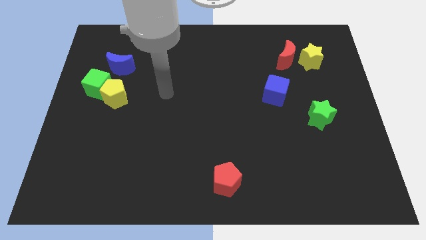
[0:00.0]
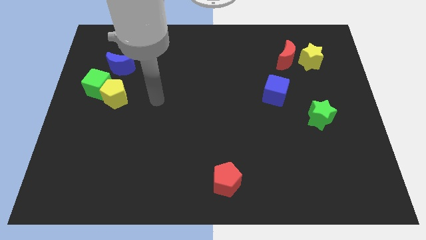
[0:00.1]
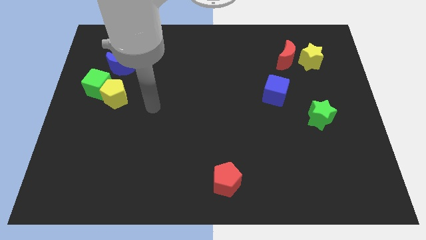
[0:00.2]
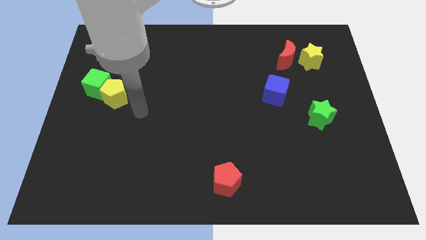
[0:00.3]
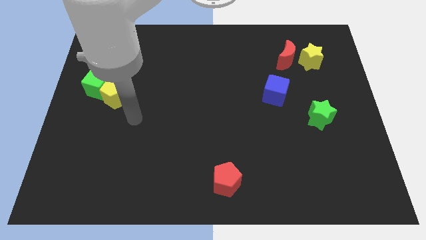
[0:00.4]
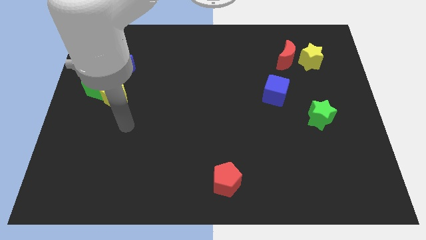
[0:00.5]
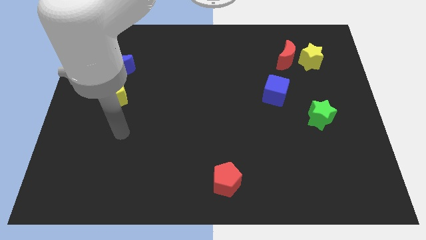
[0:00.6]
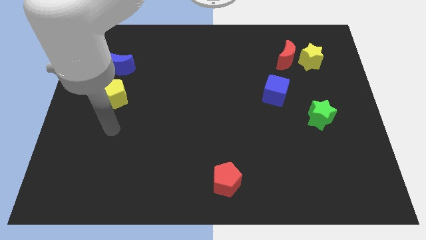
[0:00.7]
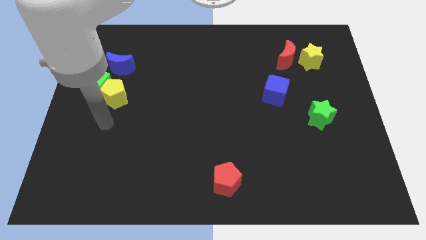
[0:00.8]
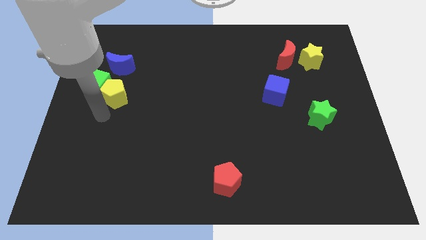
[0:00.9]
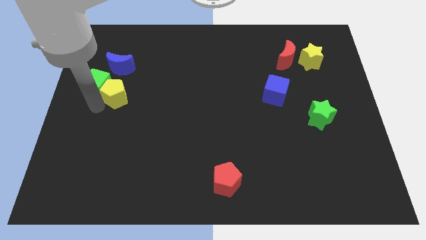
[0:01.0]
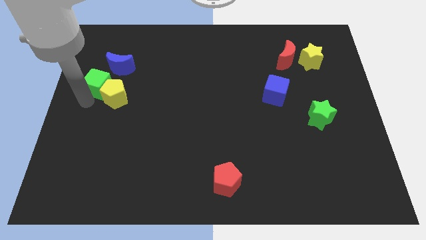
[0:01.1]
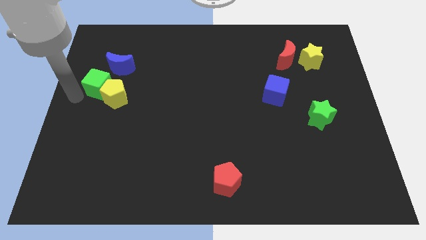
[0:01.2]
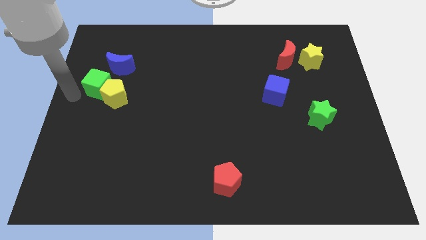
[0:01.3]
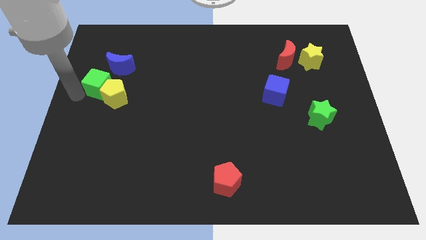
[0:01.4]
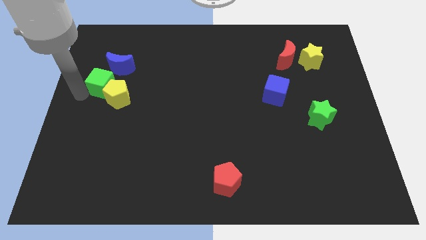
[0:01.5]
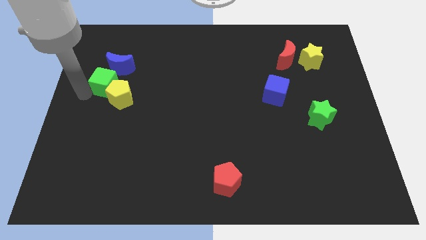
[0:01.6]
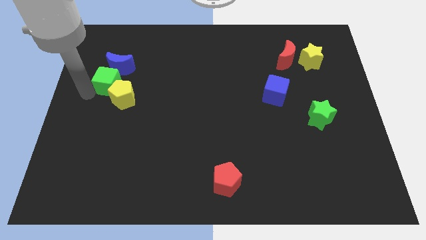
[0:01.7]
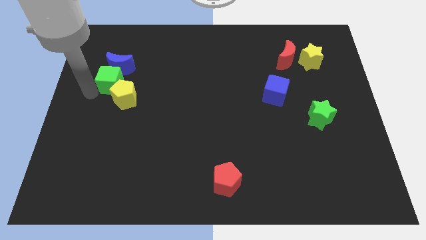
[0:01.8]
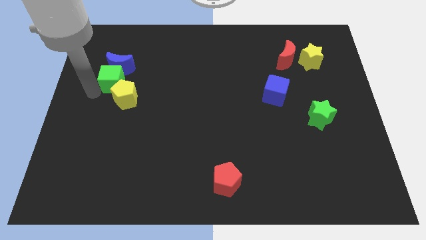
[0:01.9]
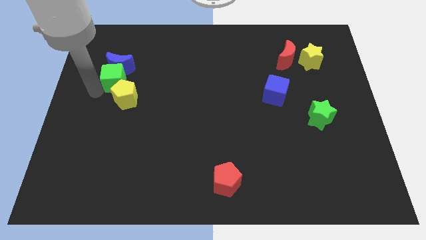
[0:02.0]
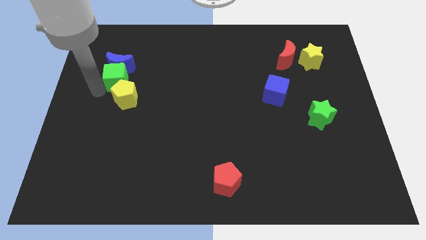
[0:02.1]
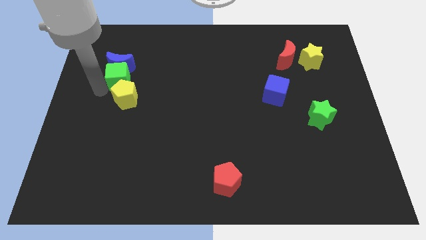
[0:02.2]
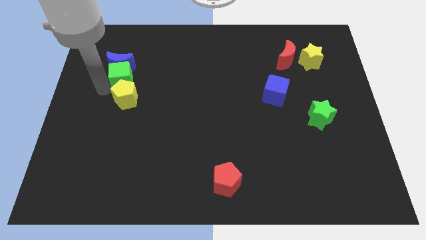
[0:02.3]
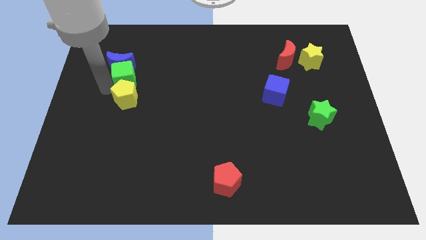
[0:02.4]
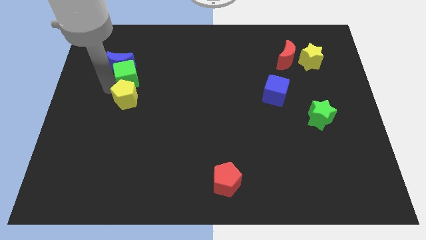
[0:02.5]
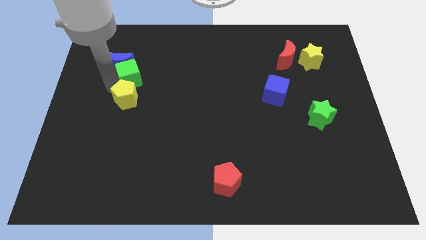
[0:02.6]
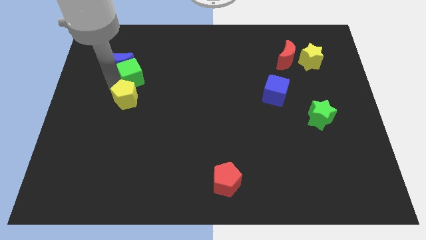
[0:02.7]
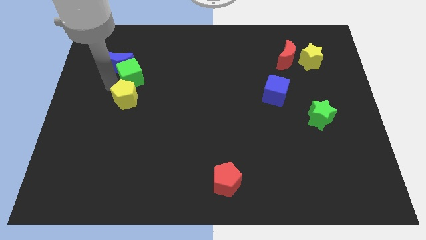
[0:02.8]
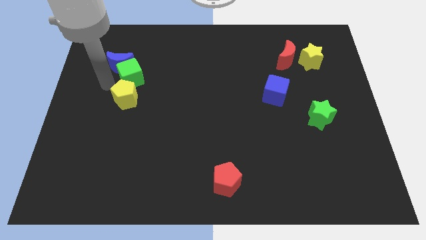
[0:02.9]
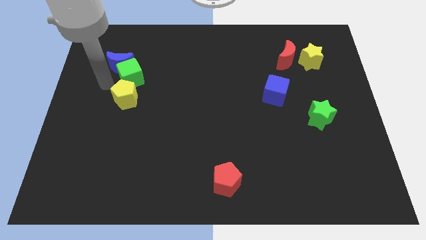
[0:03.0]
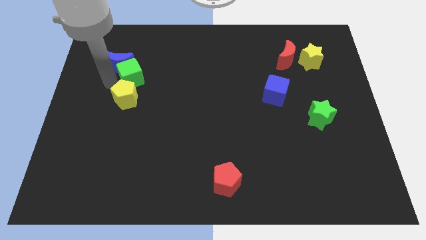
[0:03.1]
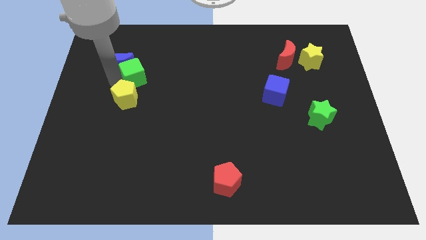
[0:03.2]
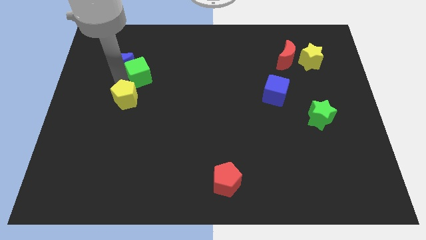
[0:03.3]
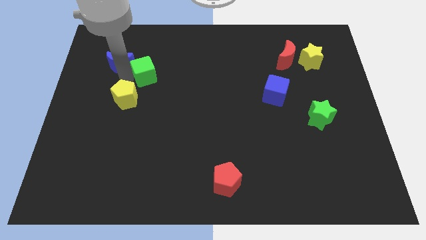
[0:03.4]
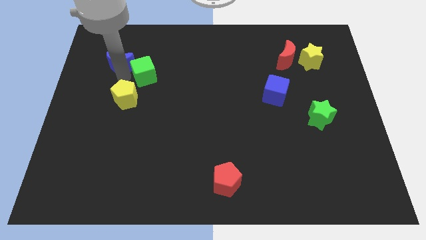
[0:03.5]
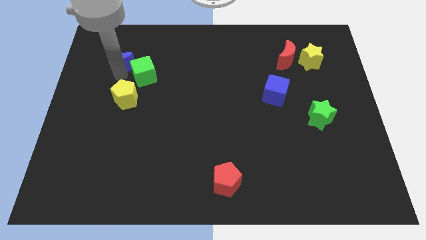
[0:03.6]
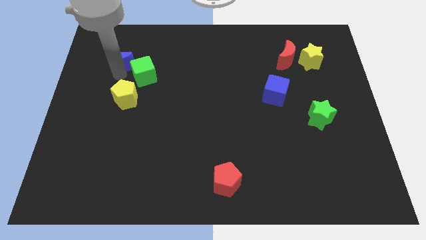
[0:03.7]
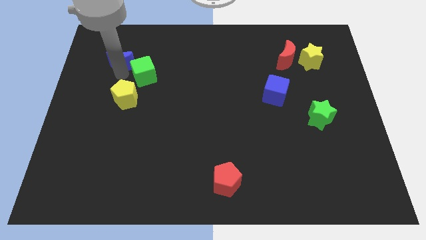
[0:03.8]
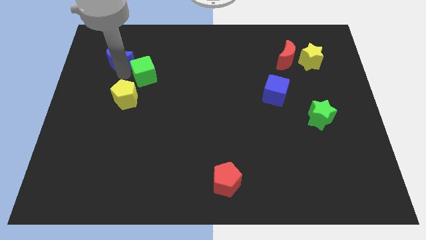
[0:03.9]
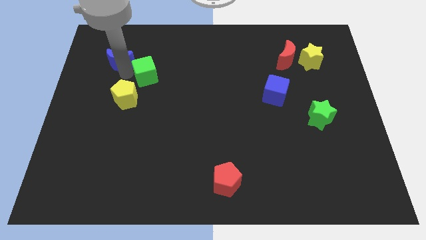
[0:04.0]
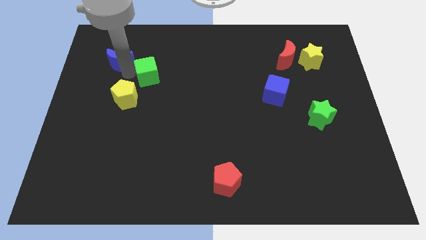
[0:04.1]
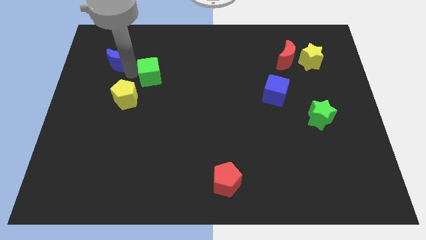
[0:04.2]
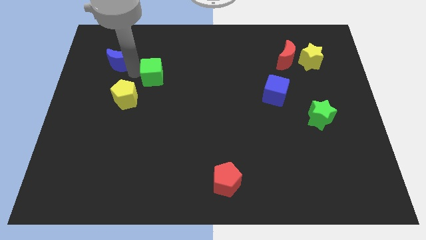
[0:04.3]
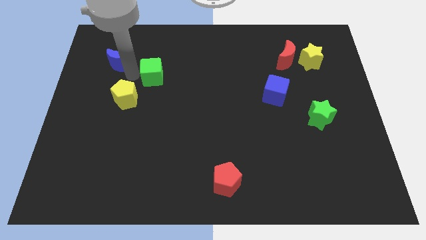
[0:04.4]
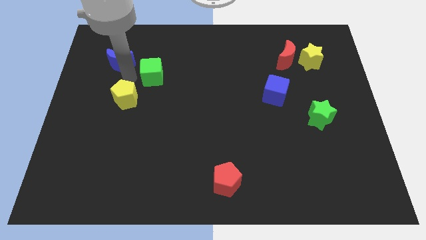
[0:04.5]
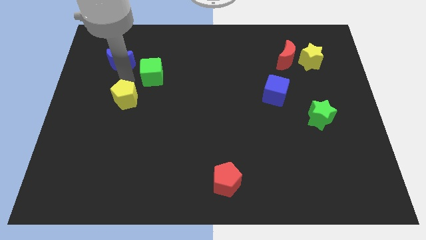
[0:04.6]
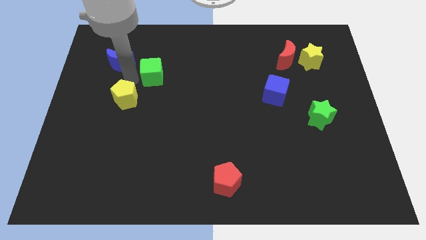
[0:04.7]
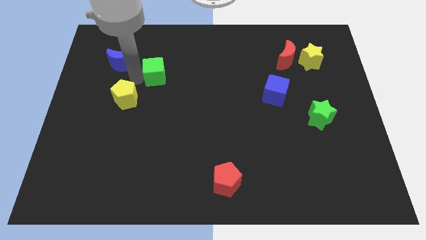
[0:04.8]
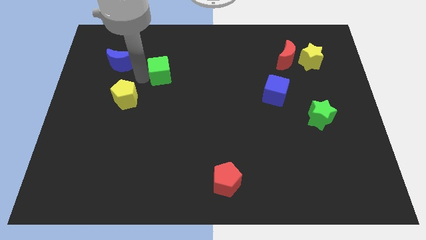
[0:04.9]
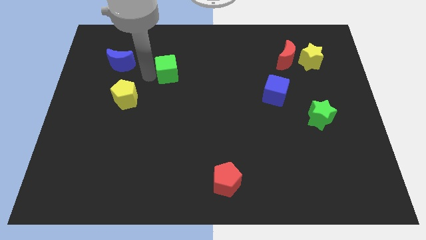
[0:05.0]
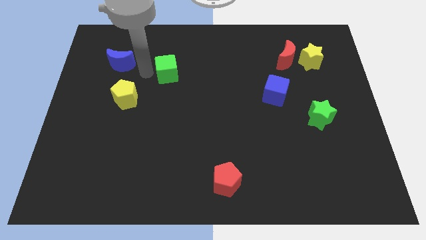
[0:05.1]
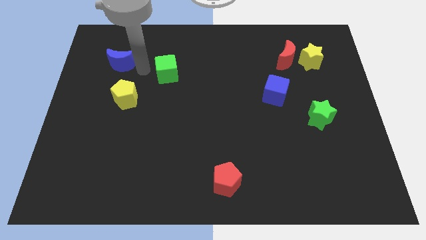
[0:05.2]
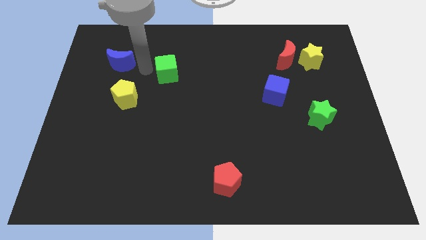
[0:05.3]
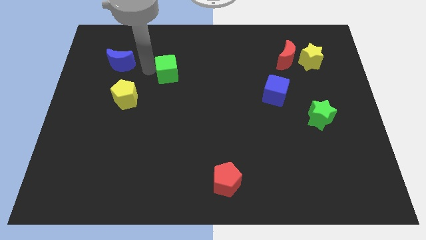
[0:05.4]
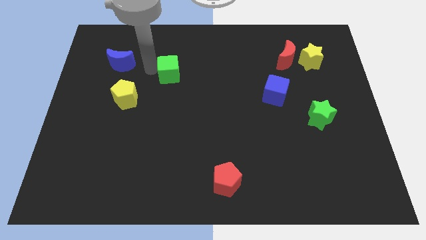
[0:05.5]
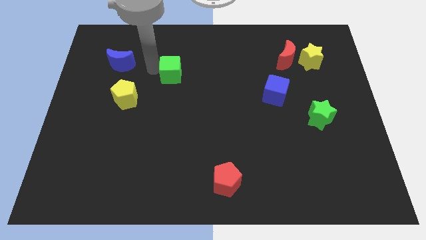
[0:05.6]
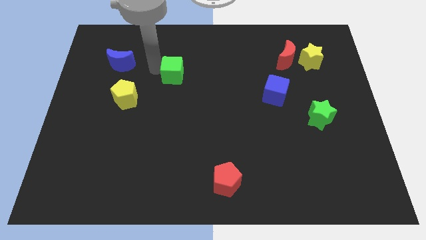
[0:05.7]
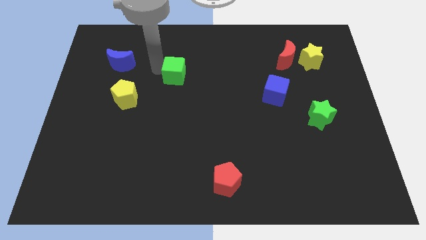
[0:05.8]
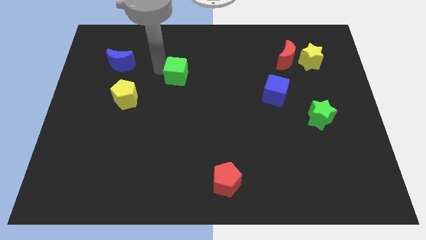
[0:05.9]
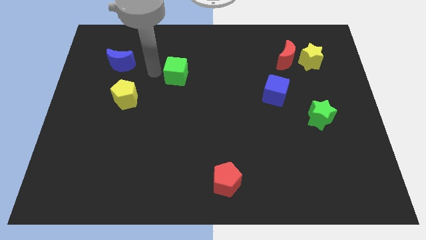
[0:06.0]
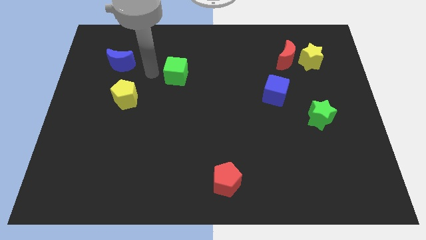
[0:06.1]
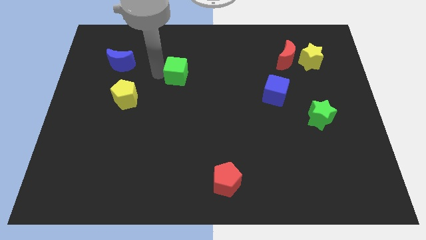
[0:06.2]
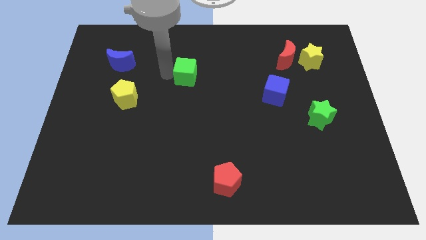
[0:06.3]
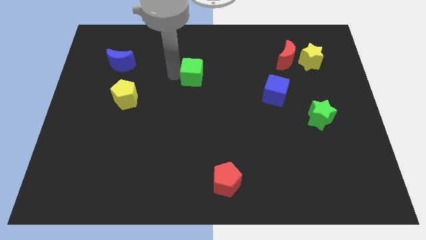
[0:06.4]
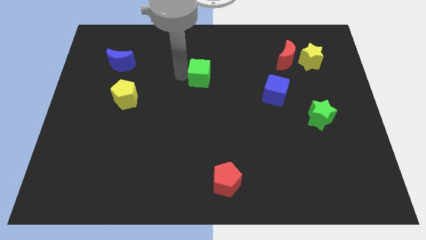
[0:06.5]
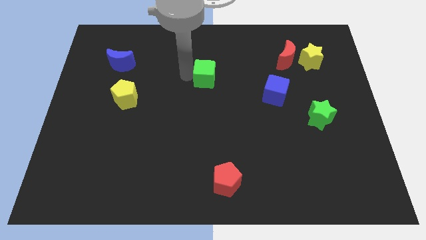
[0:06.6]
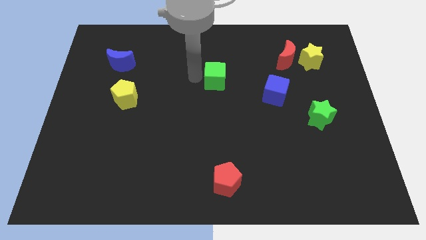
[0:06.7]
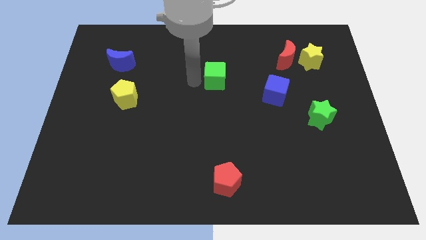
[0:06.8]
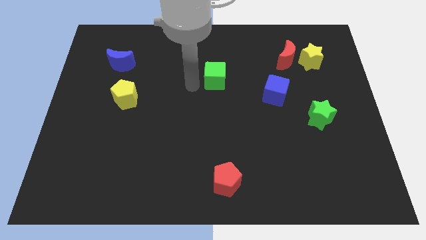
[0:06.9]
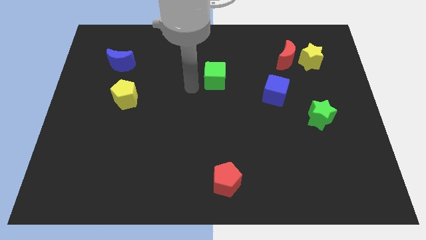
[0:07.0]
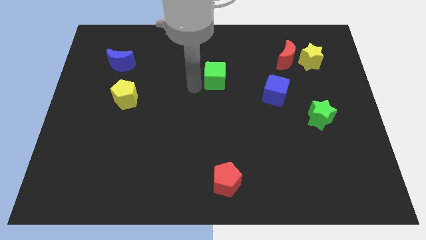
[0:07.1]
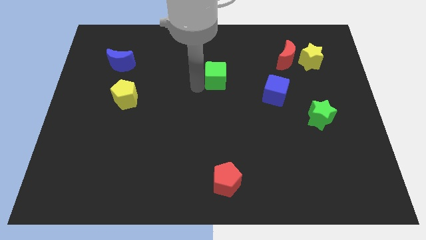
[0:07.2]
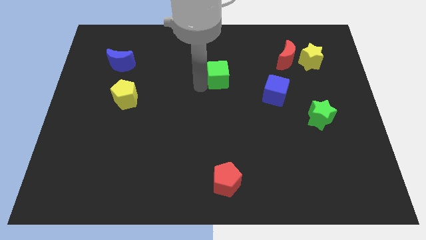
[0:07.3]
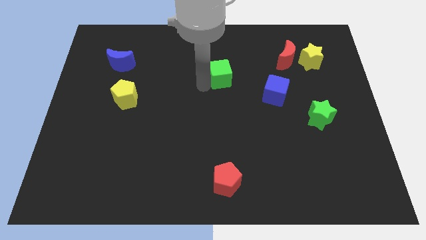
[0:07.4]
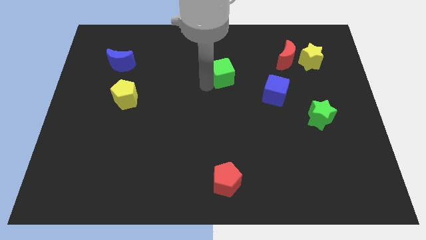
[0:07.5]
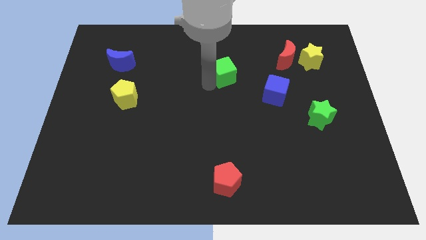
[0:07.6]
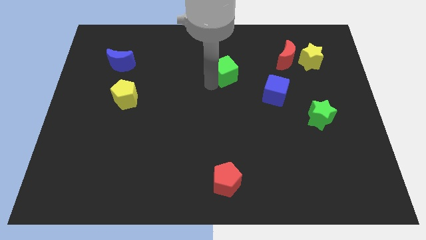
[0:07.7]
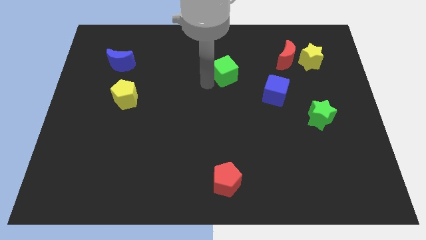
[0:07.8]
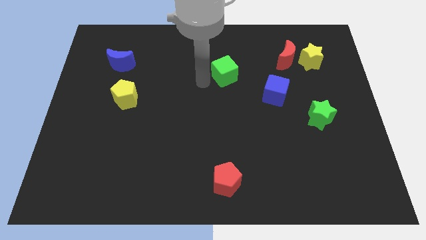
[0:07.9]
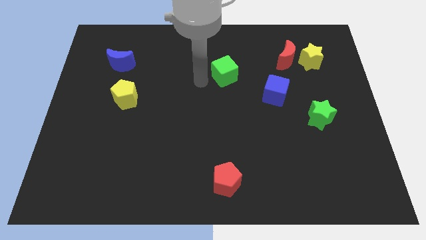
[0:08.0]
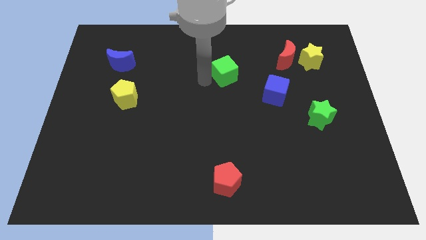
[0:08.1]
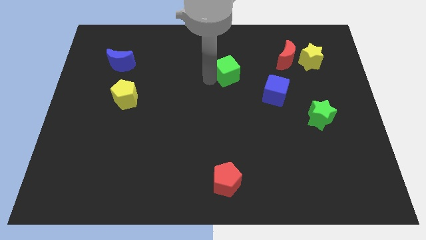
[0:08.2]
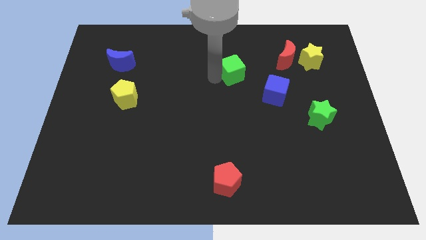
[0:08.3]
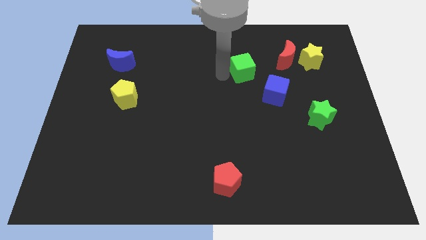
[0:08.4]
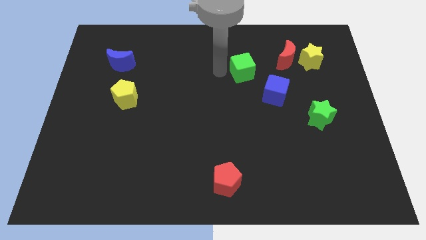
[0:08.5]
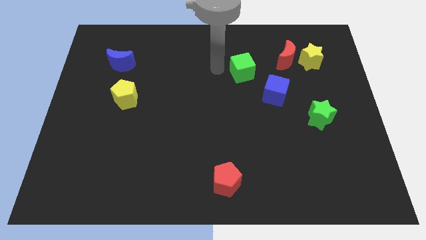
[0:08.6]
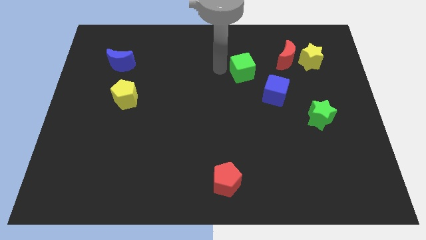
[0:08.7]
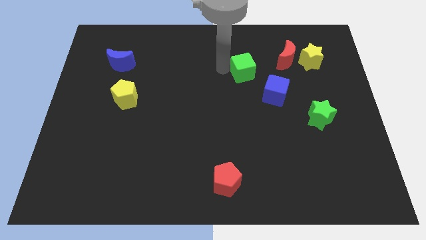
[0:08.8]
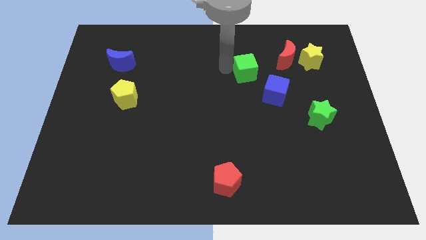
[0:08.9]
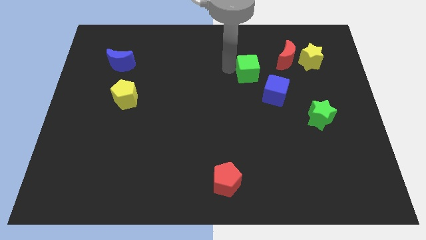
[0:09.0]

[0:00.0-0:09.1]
push the green cube to the bottom left side of the red moon
